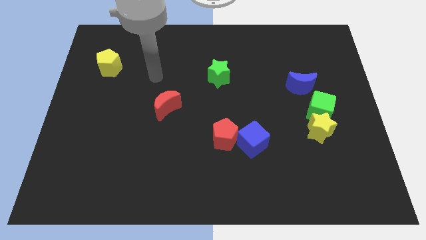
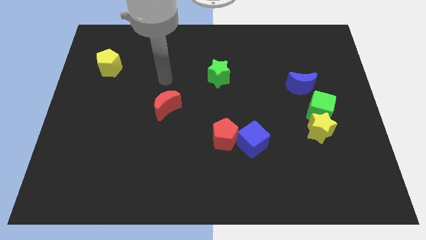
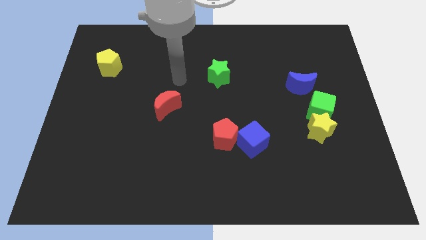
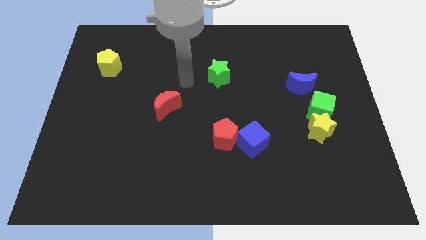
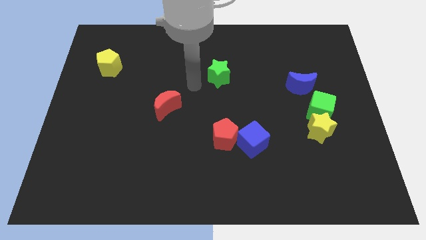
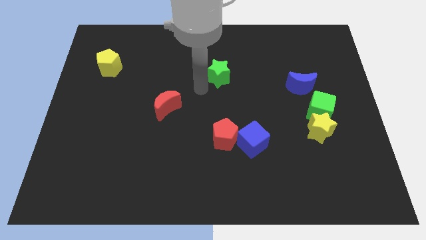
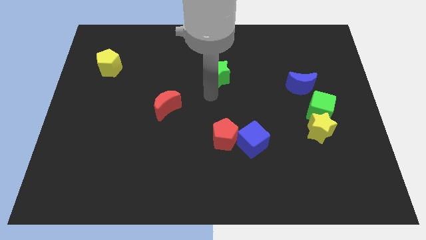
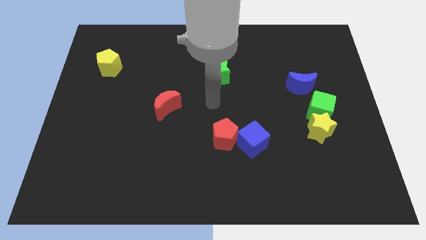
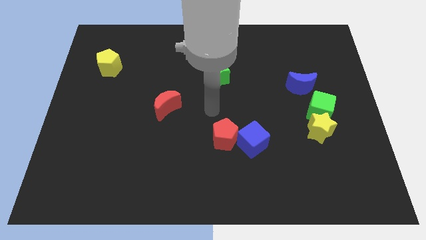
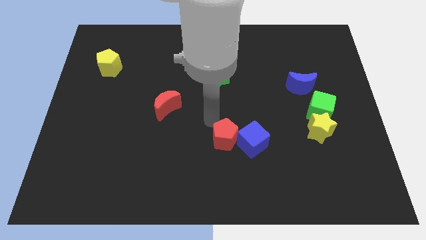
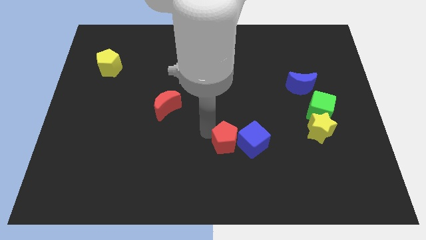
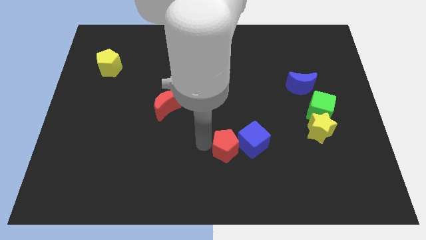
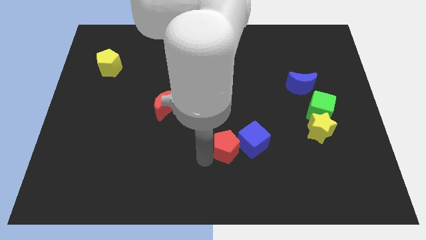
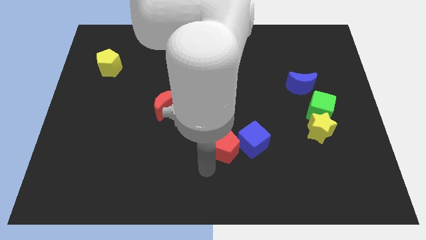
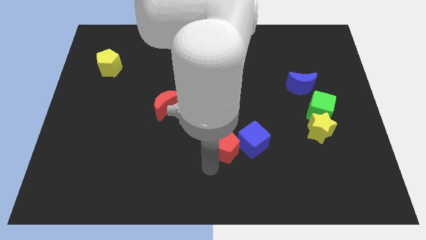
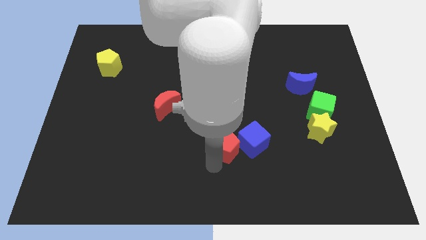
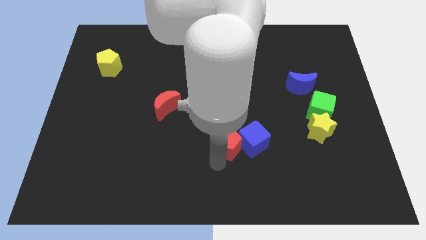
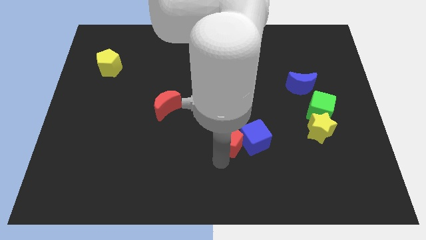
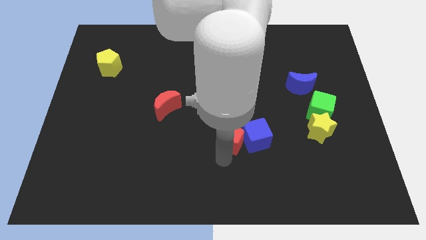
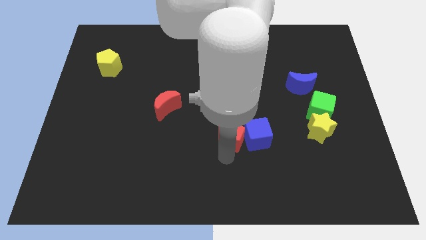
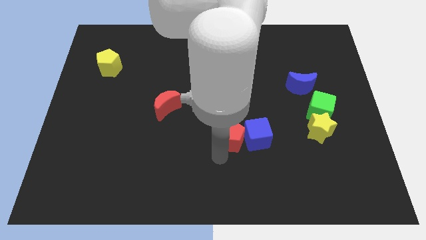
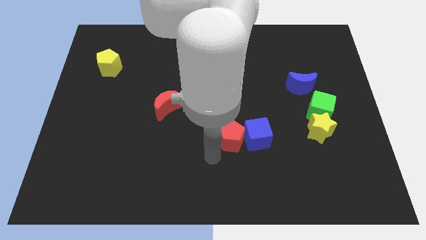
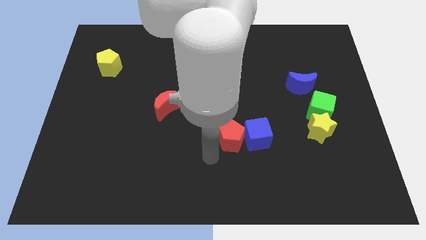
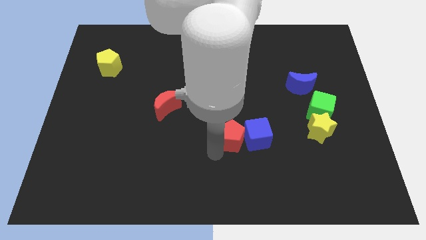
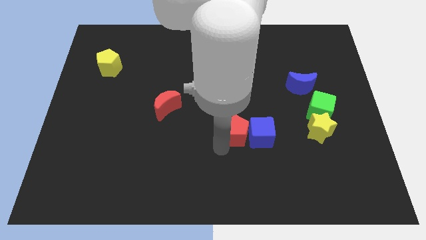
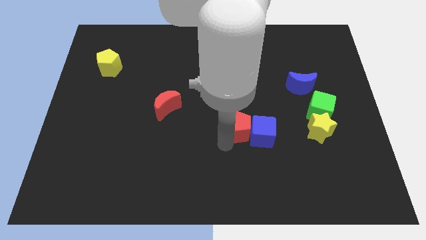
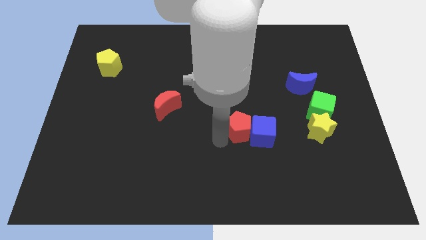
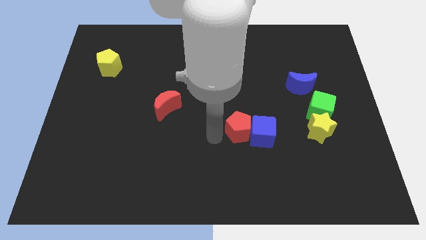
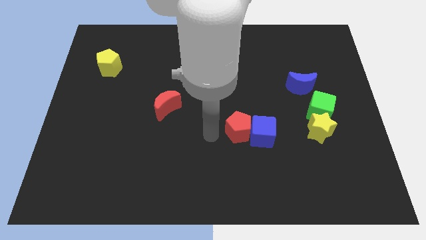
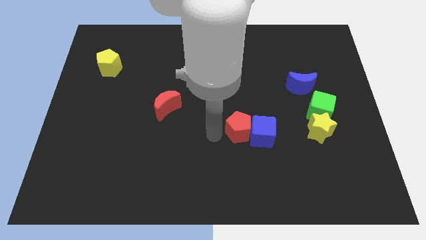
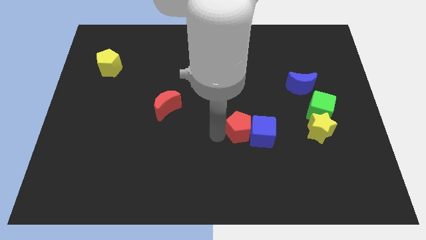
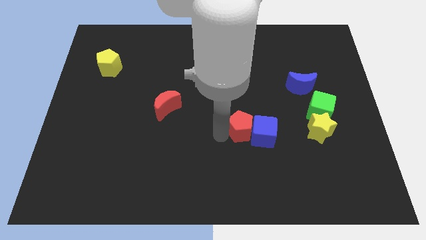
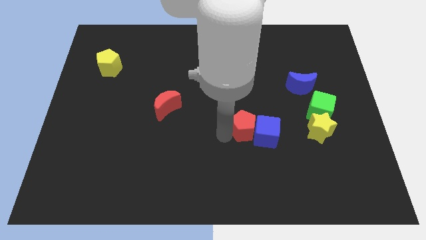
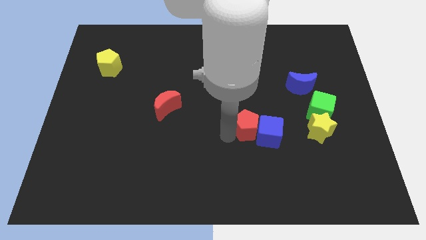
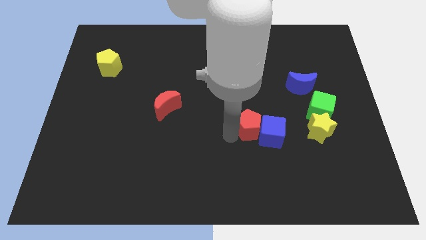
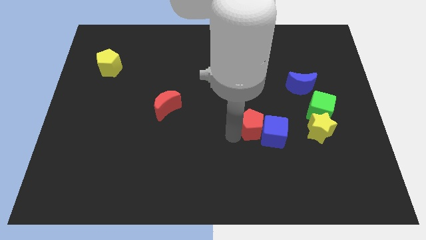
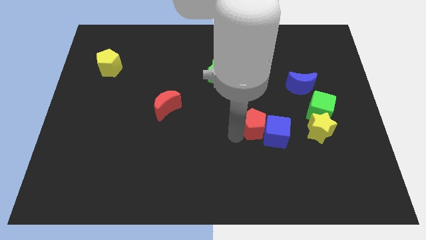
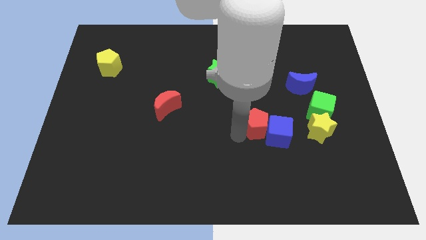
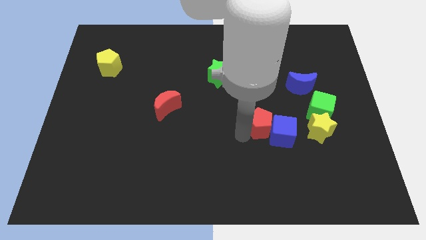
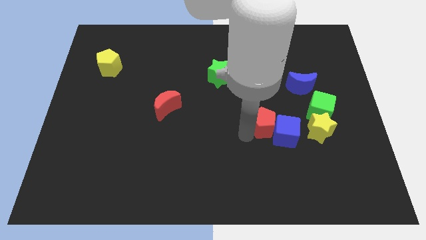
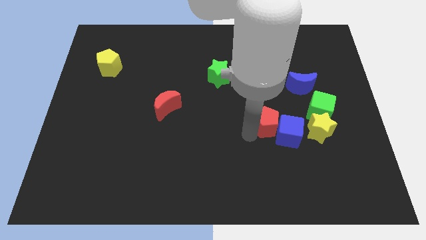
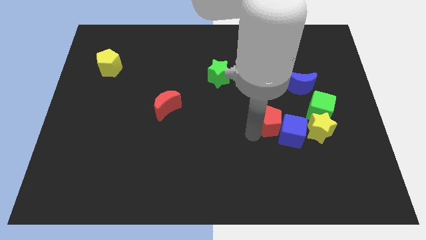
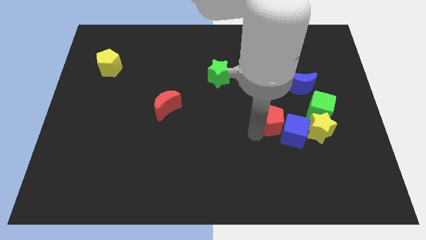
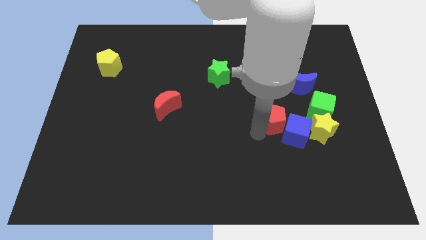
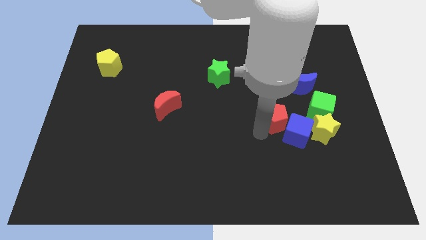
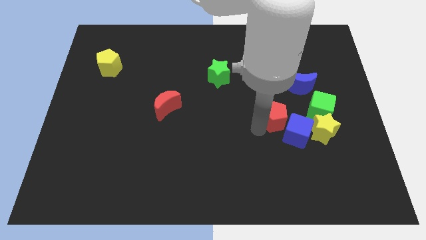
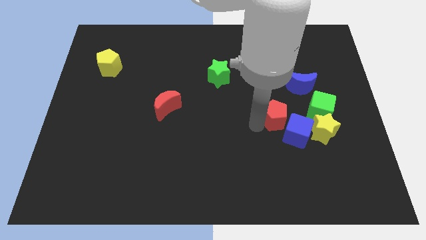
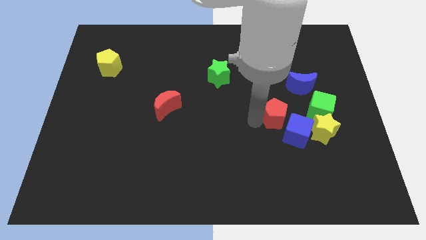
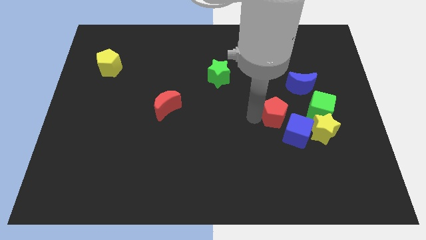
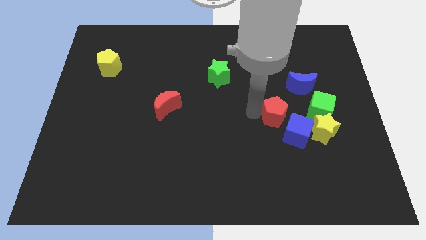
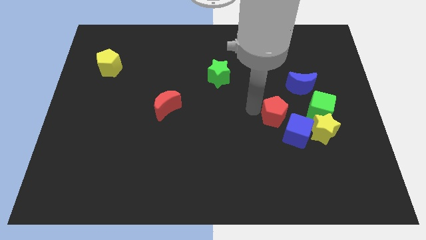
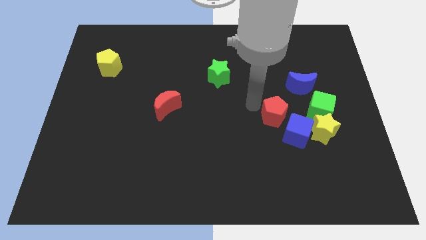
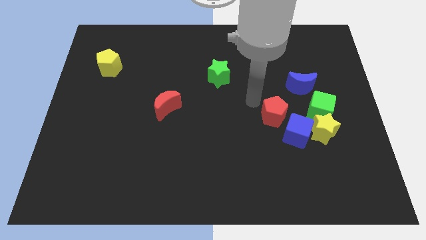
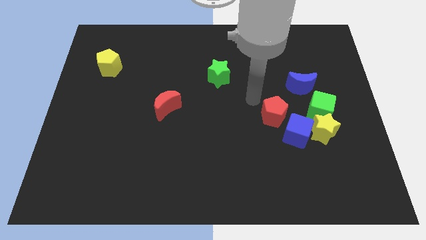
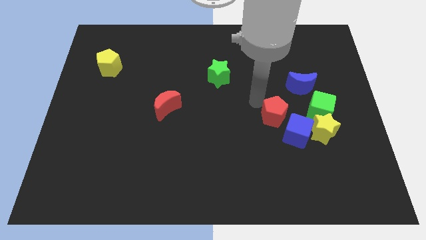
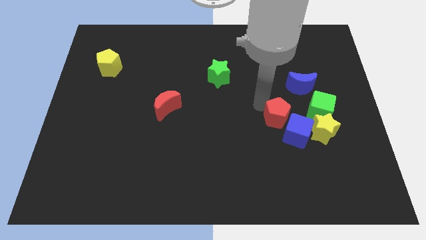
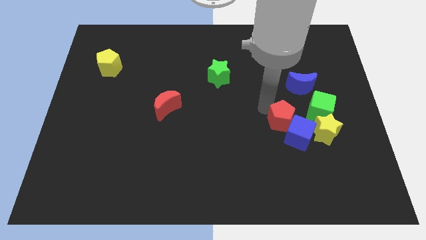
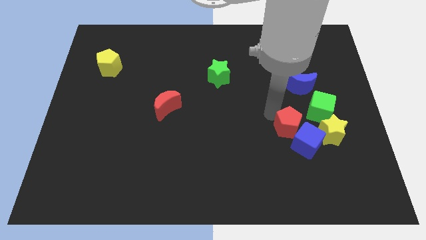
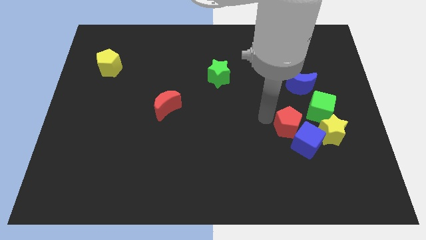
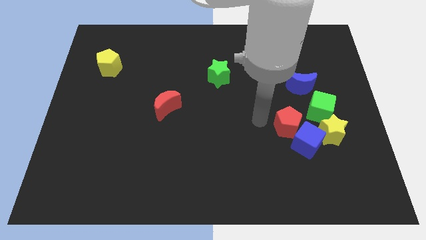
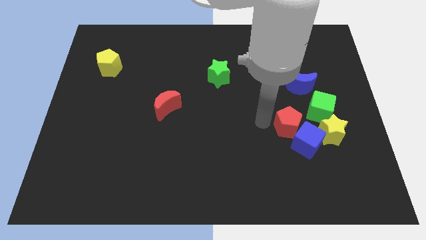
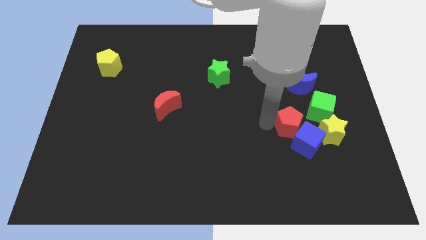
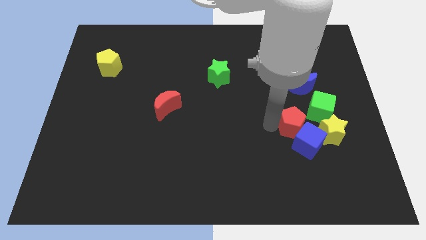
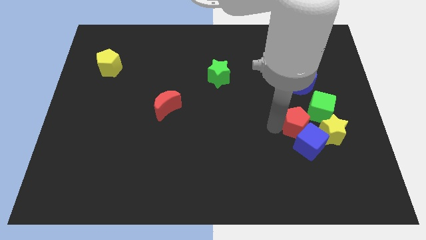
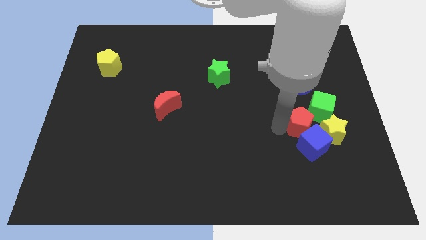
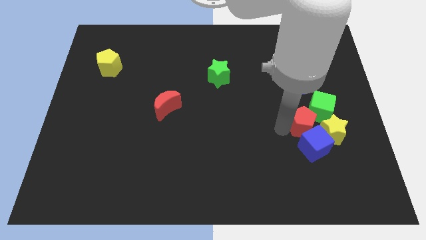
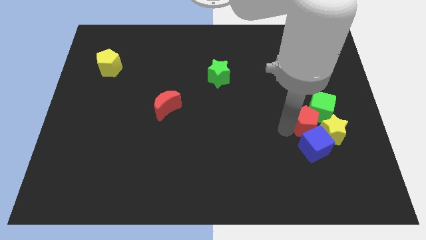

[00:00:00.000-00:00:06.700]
put the red pentagon next to the yellow star

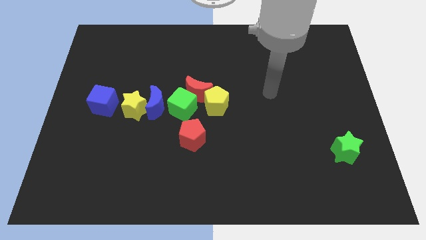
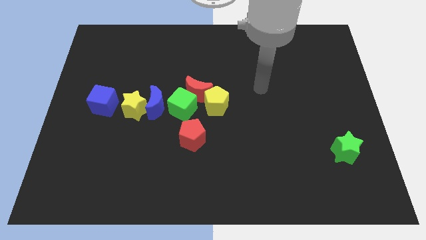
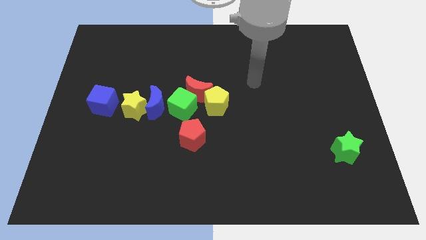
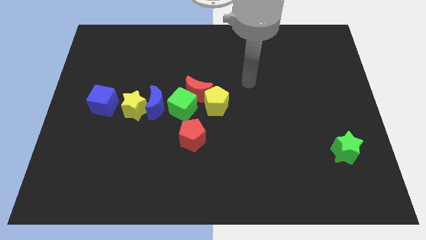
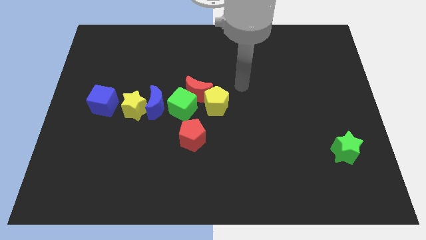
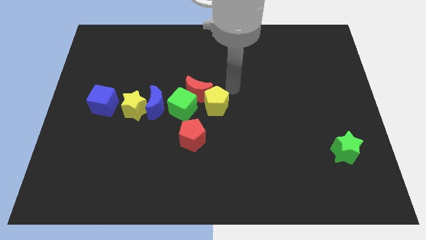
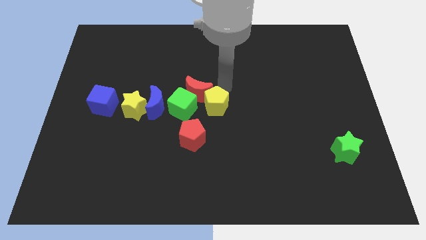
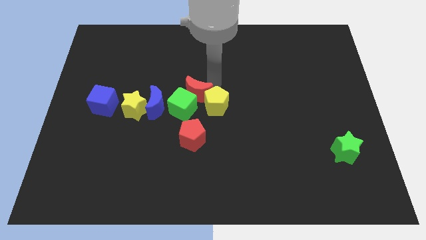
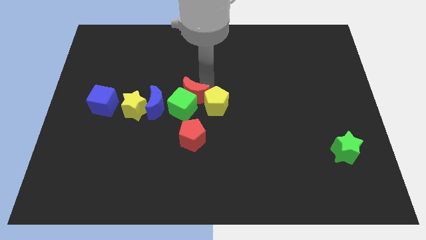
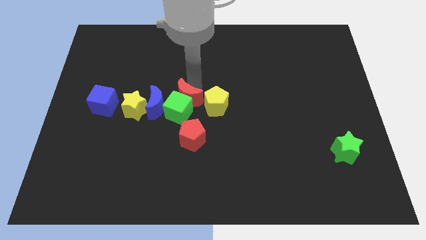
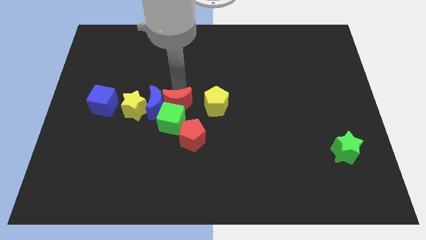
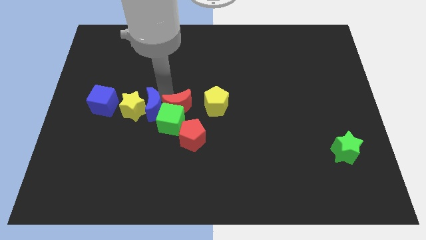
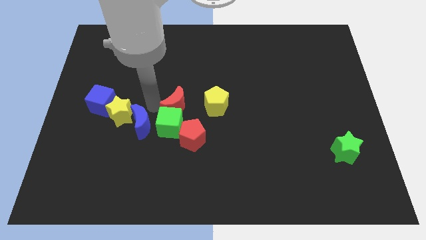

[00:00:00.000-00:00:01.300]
put the green cube next to the red pentagon
